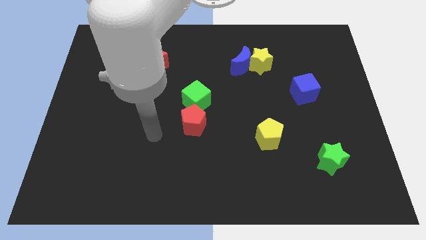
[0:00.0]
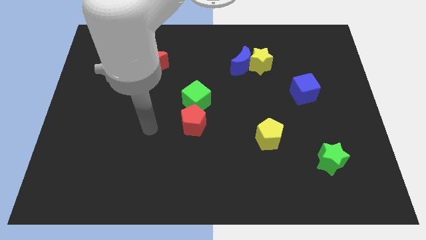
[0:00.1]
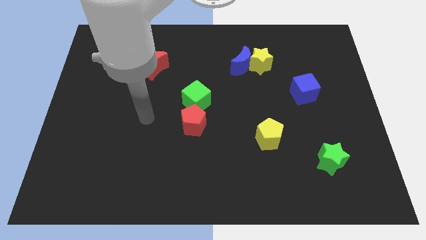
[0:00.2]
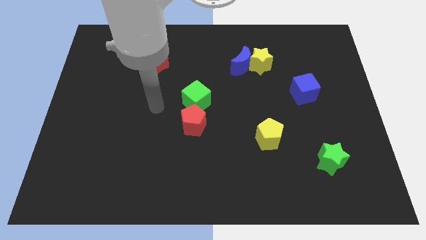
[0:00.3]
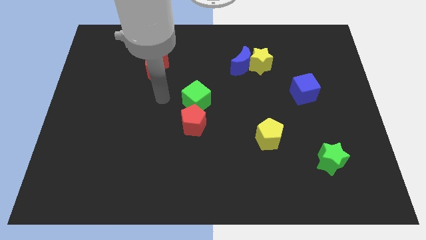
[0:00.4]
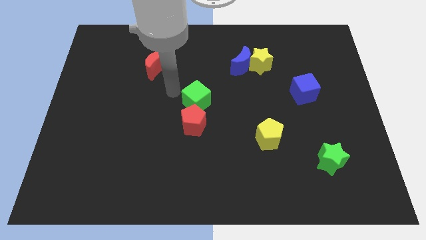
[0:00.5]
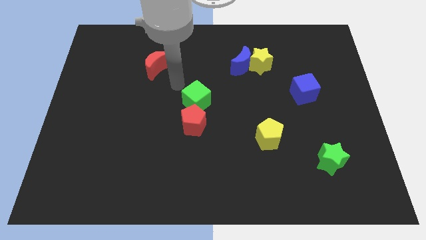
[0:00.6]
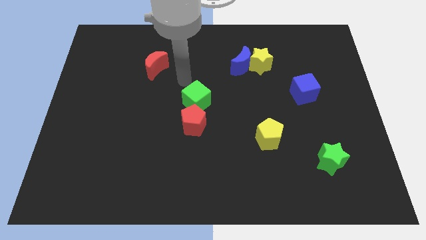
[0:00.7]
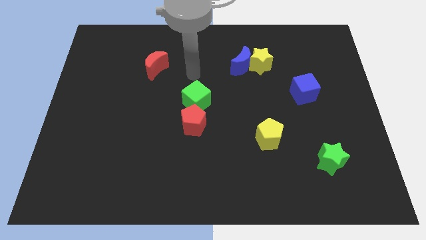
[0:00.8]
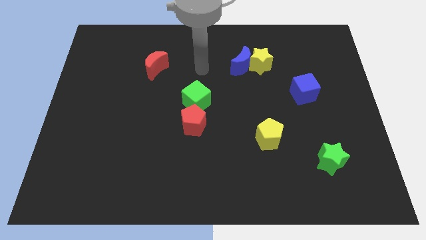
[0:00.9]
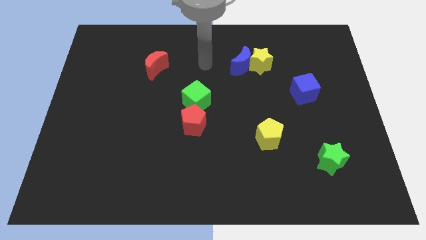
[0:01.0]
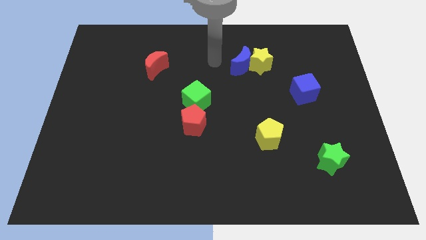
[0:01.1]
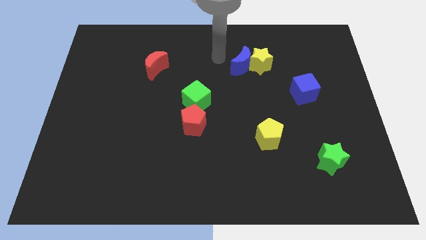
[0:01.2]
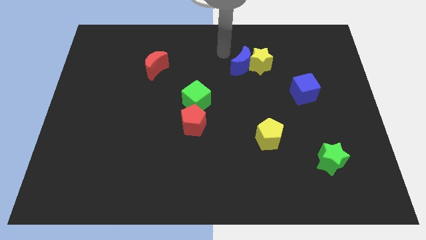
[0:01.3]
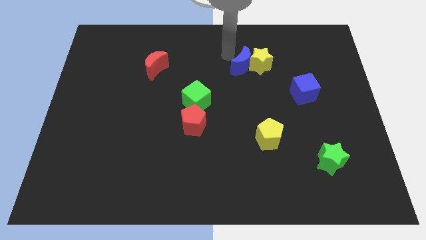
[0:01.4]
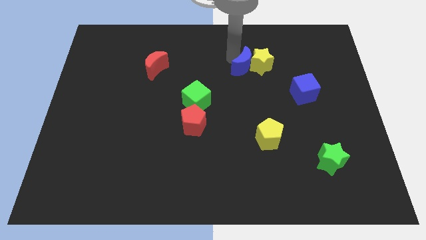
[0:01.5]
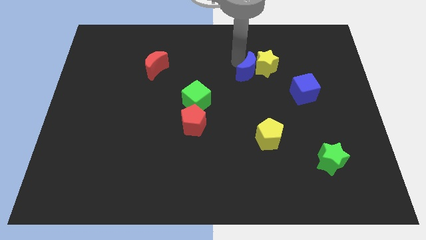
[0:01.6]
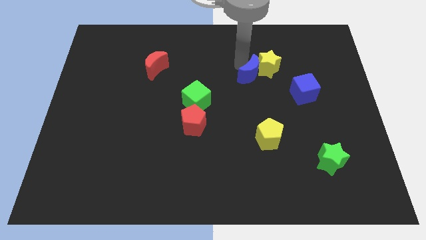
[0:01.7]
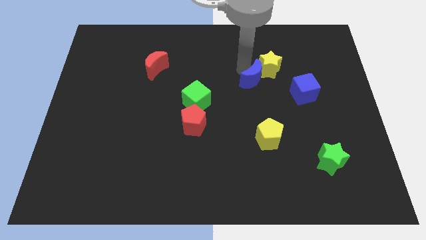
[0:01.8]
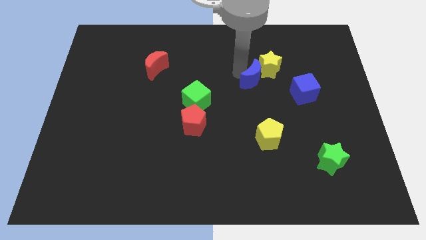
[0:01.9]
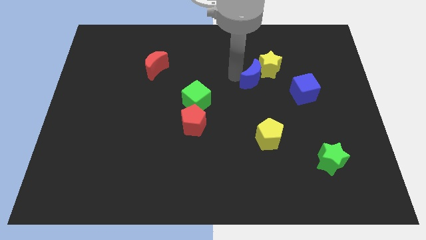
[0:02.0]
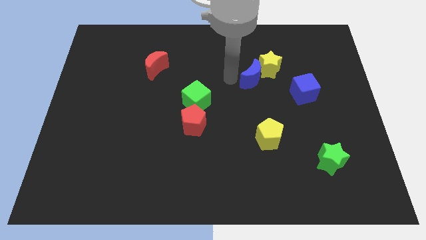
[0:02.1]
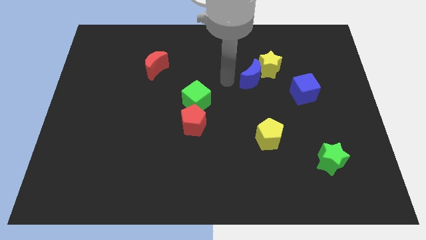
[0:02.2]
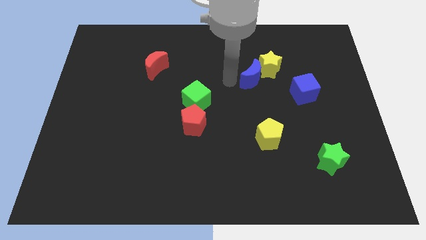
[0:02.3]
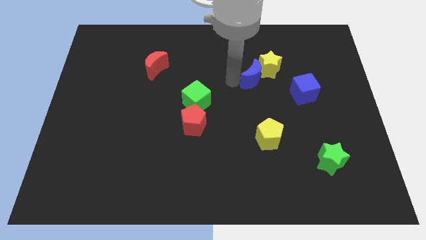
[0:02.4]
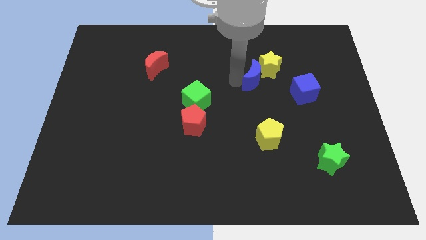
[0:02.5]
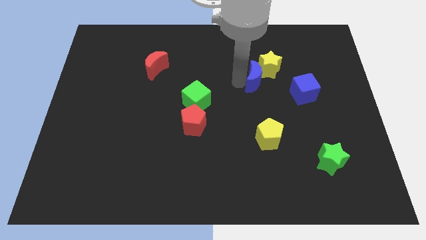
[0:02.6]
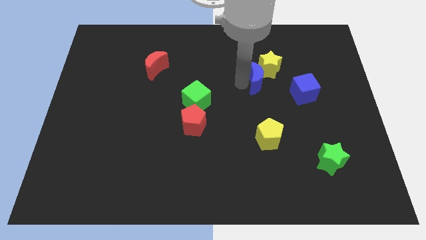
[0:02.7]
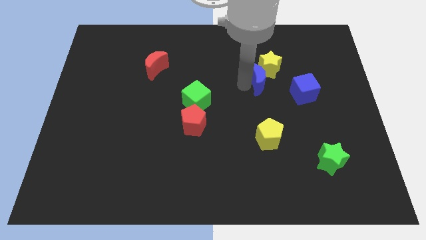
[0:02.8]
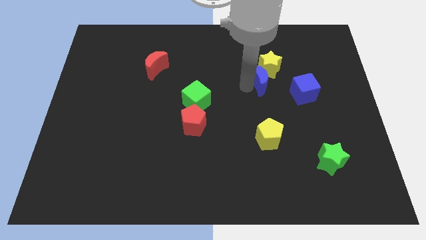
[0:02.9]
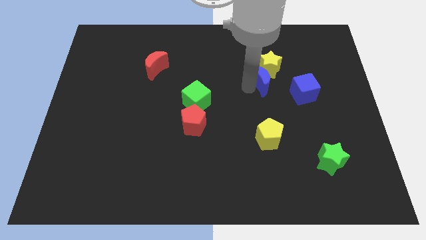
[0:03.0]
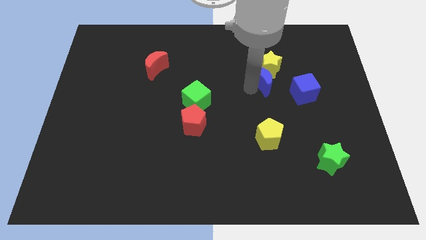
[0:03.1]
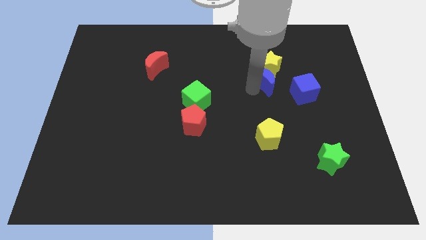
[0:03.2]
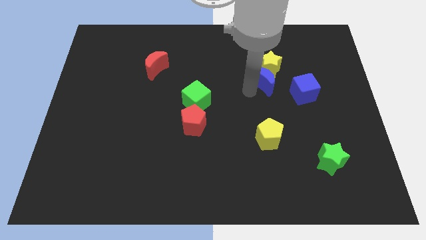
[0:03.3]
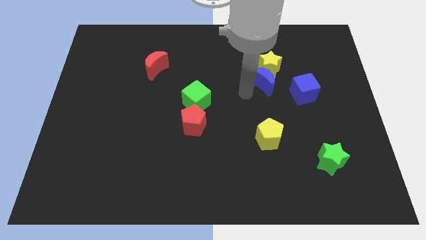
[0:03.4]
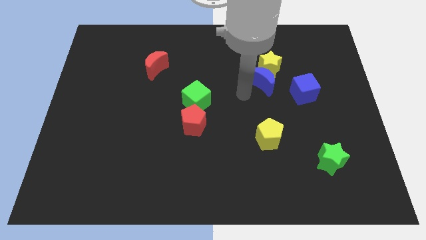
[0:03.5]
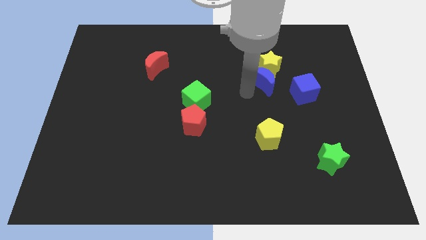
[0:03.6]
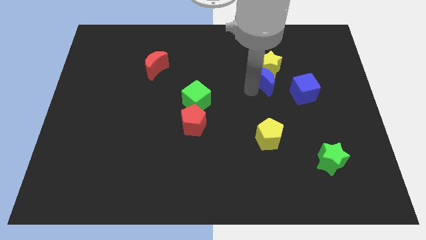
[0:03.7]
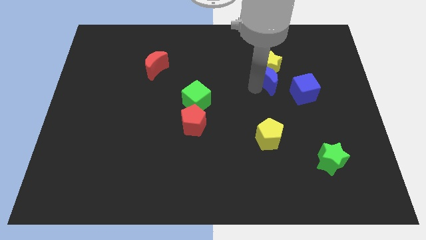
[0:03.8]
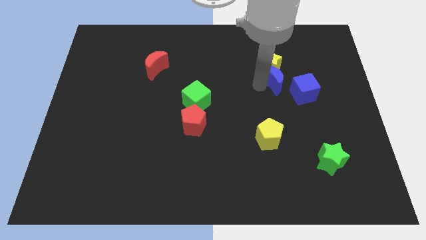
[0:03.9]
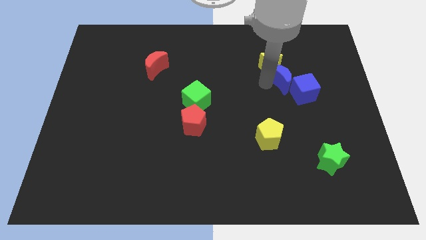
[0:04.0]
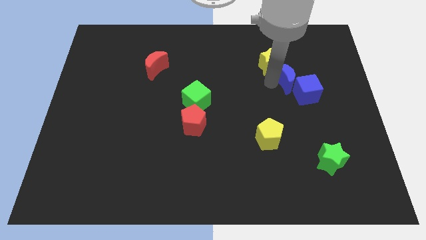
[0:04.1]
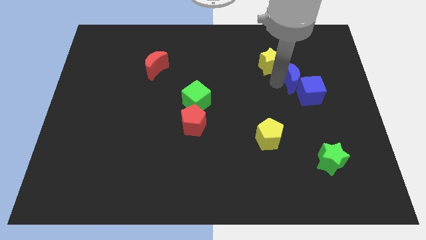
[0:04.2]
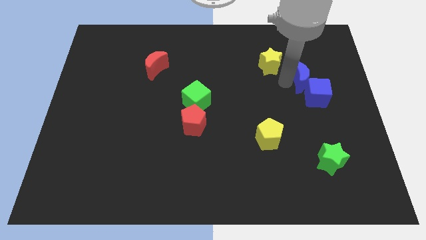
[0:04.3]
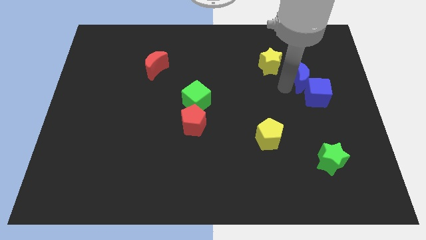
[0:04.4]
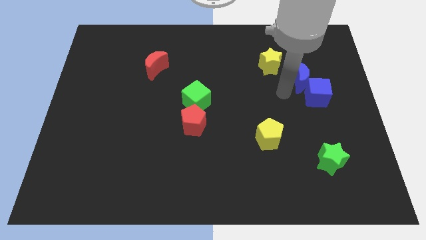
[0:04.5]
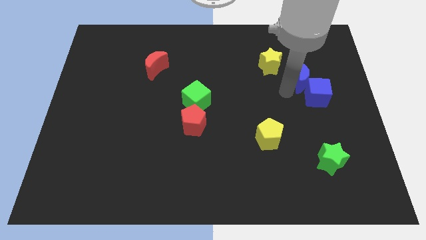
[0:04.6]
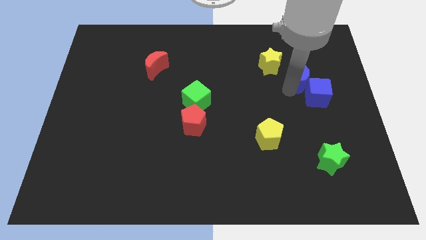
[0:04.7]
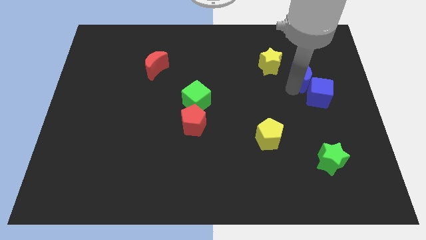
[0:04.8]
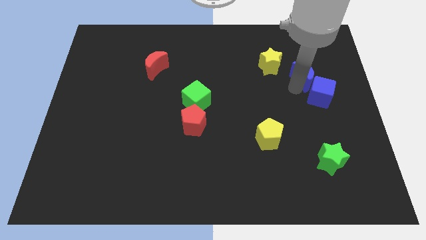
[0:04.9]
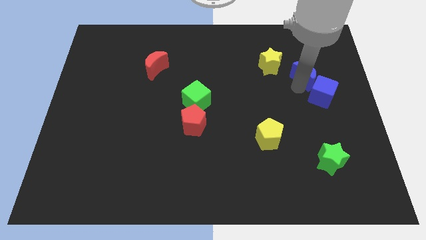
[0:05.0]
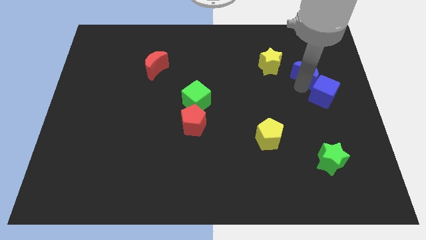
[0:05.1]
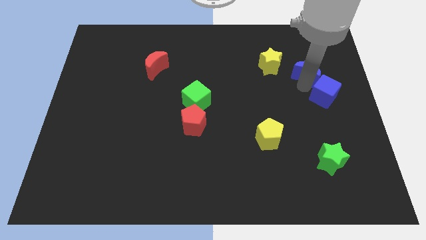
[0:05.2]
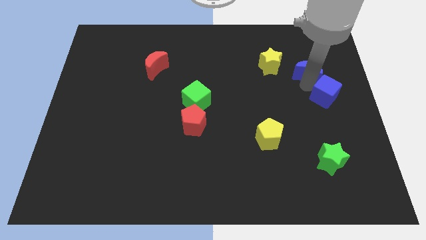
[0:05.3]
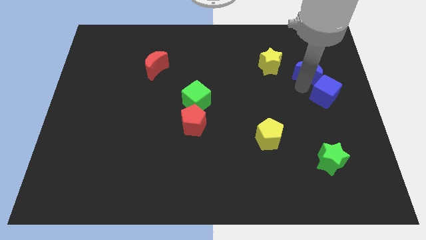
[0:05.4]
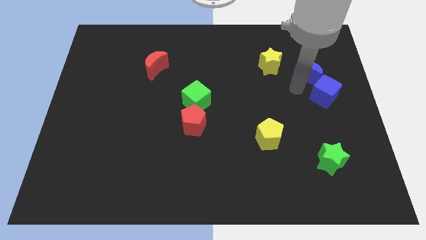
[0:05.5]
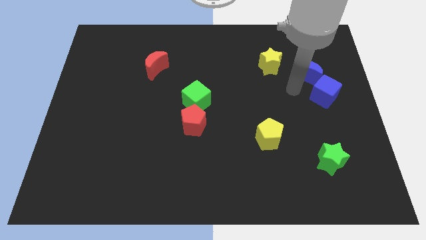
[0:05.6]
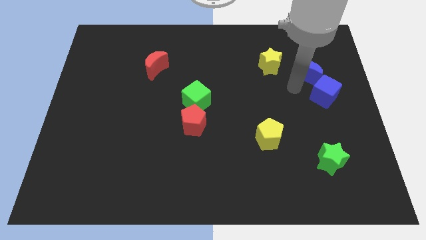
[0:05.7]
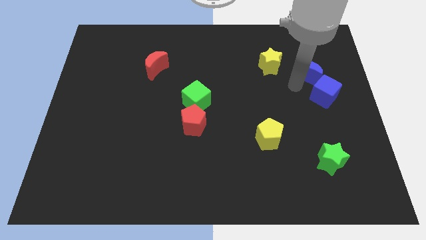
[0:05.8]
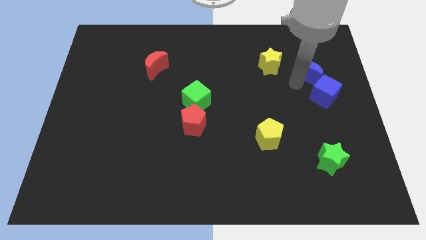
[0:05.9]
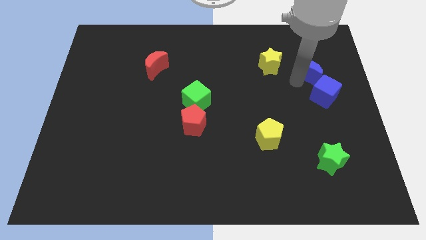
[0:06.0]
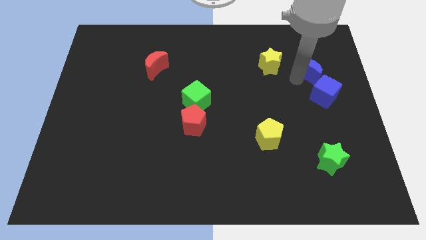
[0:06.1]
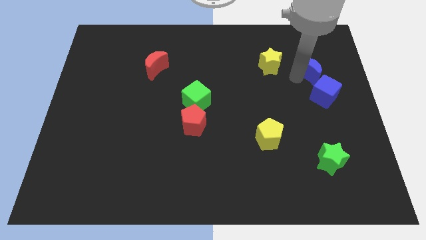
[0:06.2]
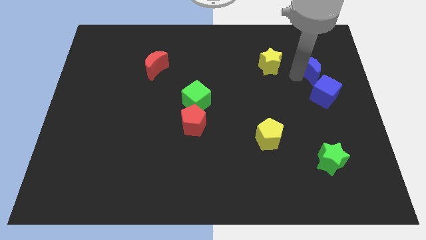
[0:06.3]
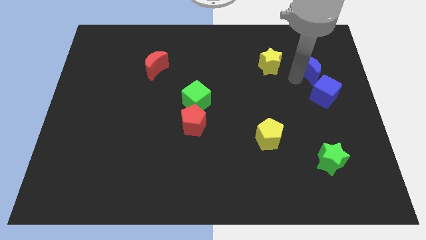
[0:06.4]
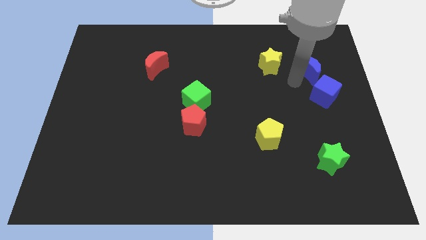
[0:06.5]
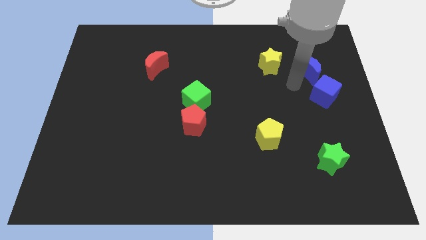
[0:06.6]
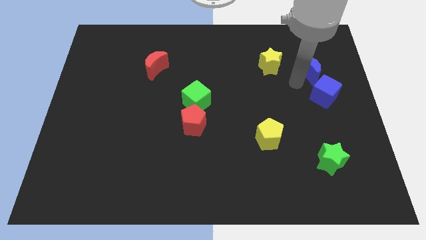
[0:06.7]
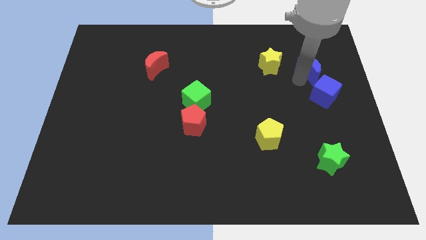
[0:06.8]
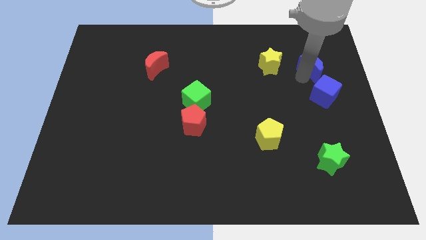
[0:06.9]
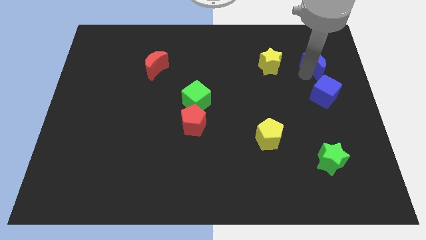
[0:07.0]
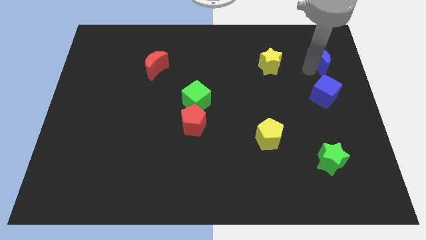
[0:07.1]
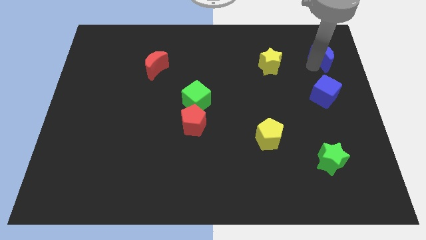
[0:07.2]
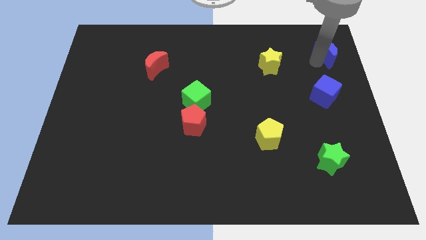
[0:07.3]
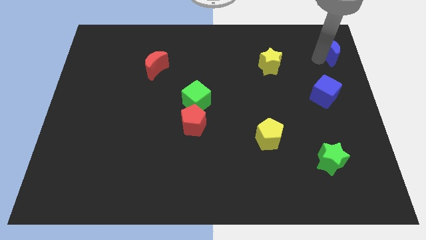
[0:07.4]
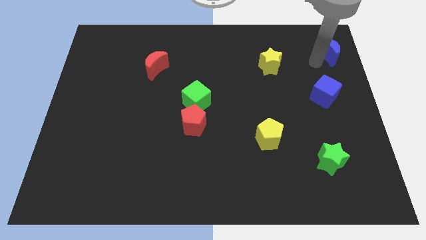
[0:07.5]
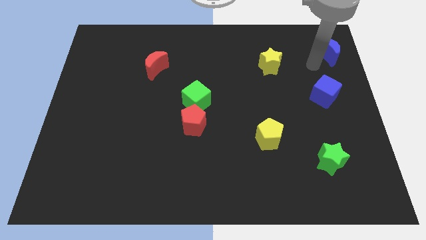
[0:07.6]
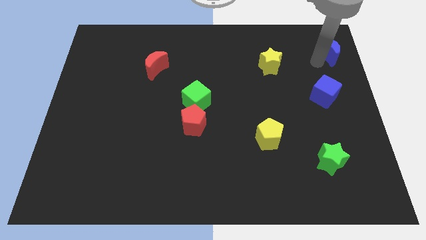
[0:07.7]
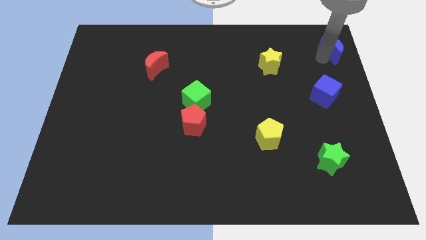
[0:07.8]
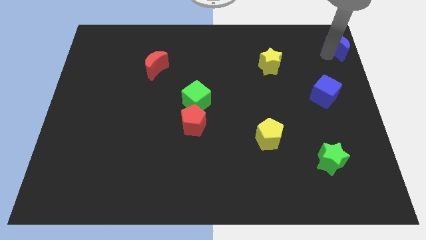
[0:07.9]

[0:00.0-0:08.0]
slide the blue moon to the upper right corner
